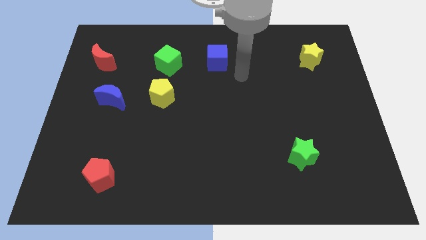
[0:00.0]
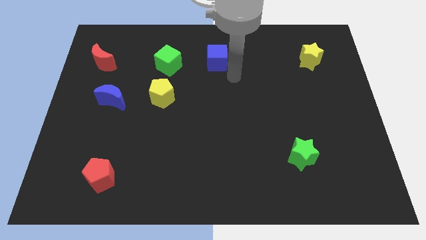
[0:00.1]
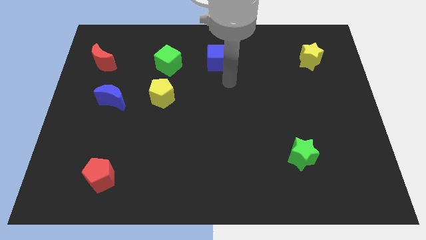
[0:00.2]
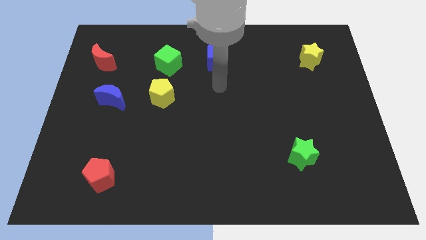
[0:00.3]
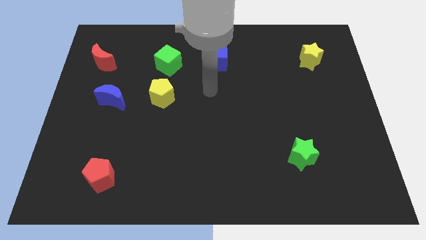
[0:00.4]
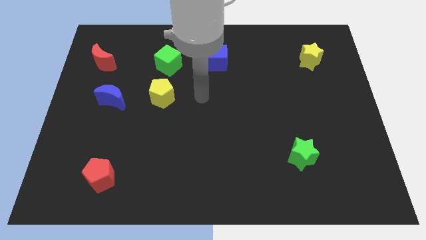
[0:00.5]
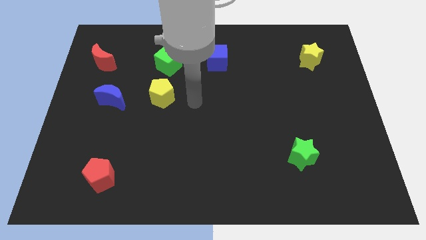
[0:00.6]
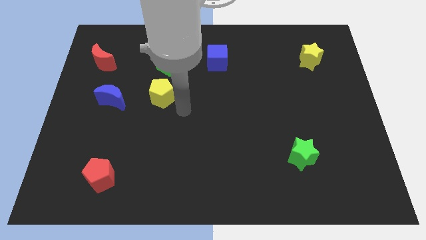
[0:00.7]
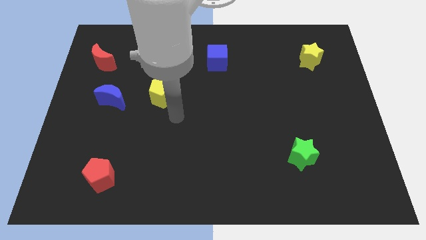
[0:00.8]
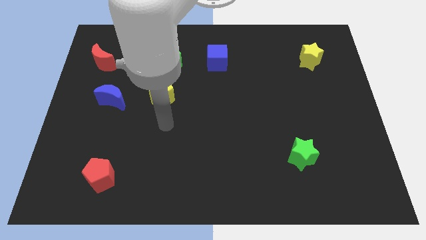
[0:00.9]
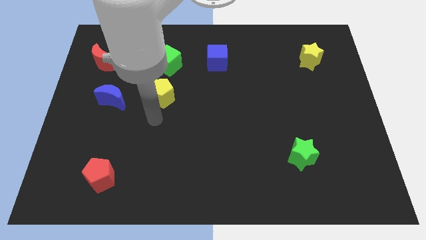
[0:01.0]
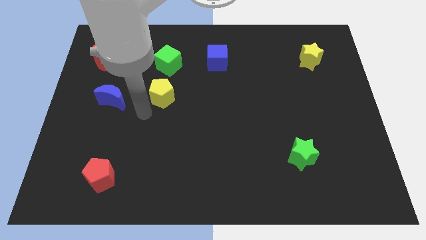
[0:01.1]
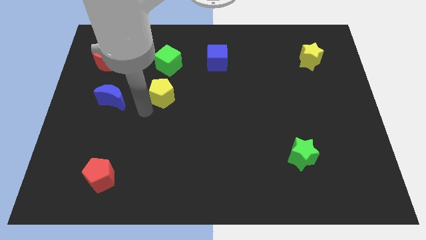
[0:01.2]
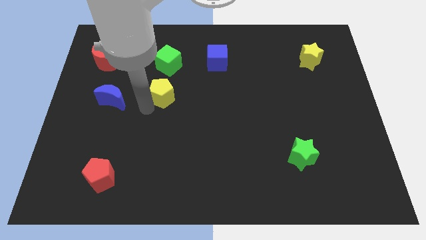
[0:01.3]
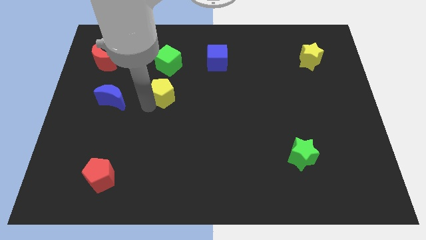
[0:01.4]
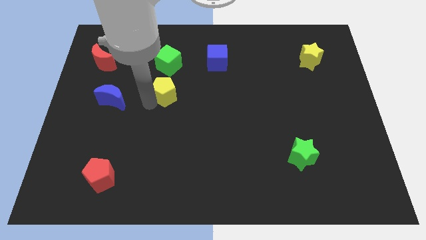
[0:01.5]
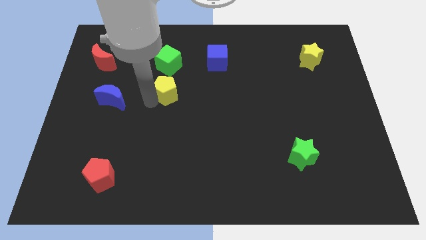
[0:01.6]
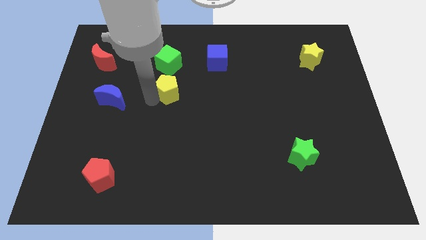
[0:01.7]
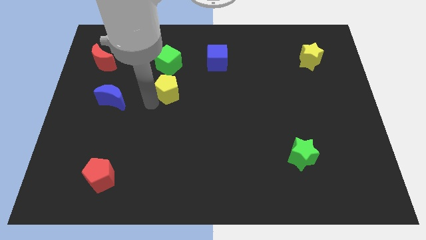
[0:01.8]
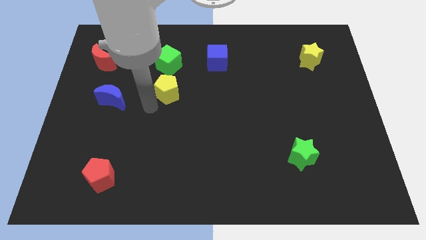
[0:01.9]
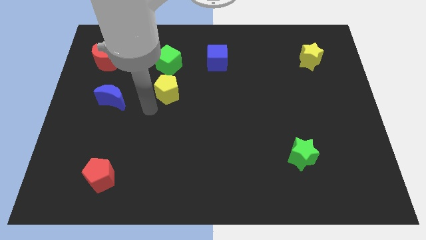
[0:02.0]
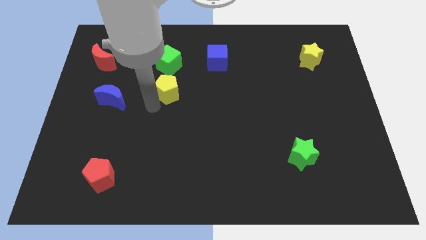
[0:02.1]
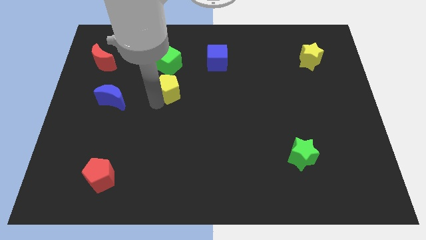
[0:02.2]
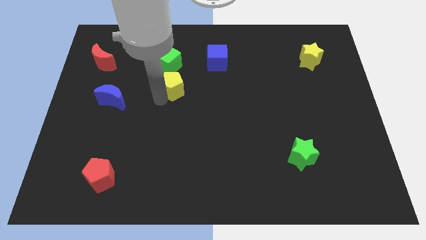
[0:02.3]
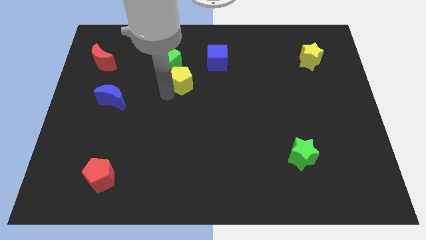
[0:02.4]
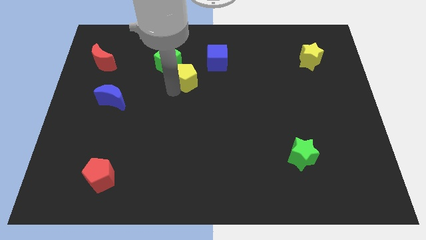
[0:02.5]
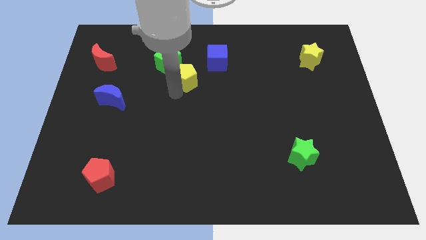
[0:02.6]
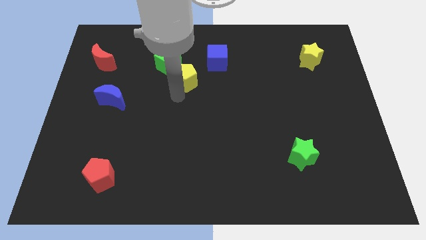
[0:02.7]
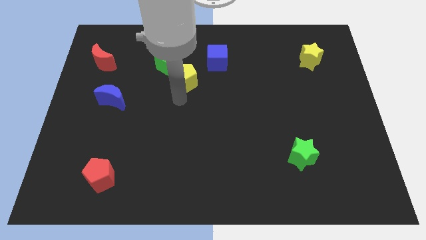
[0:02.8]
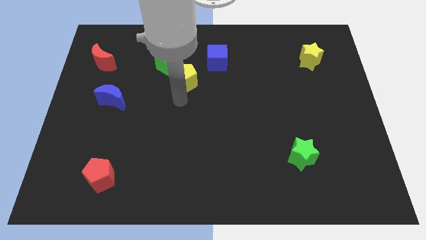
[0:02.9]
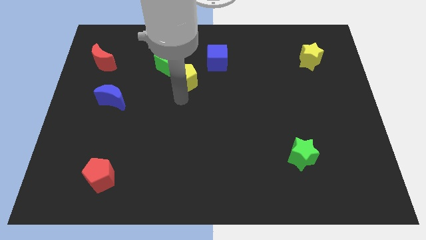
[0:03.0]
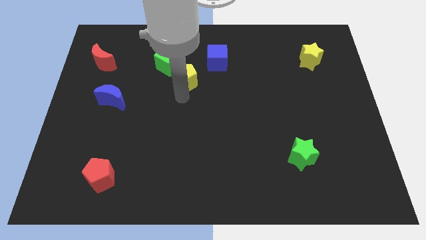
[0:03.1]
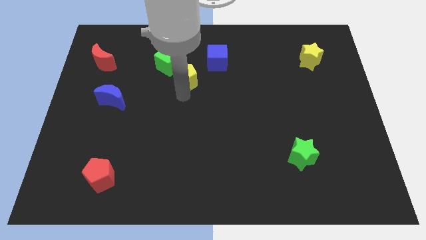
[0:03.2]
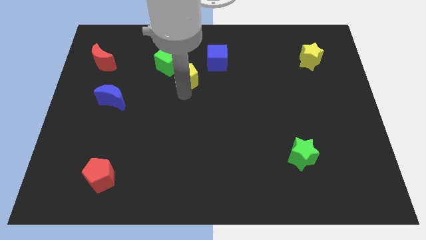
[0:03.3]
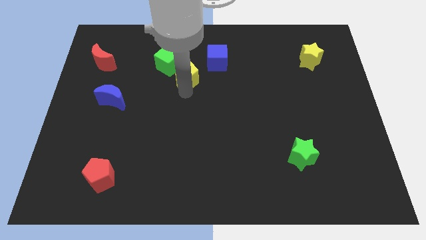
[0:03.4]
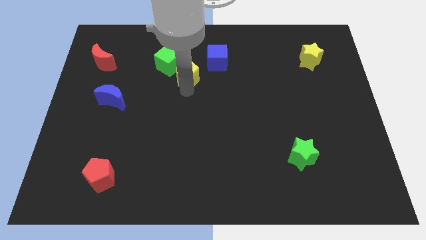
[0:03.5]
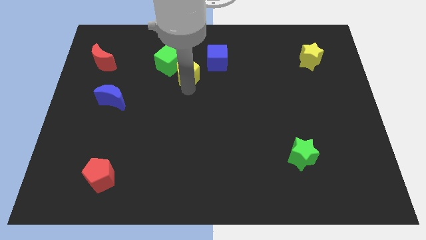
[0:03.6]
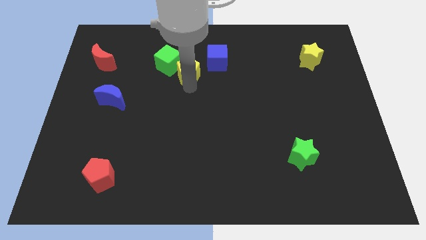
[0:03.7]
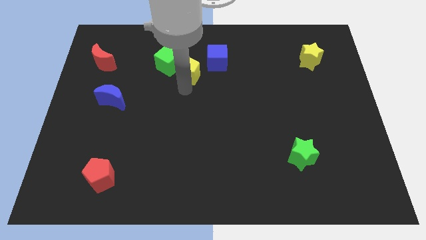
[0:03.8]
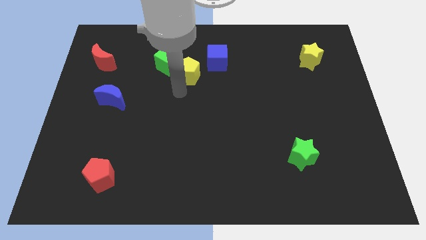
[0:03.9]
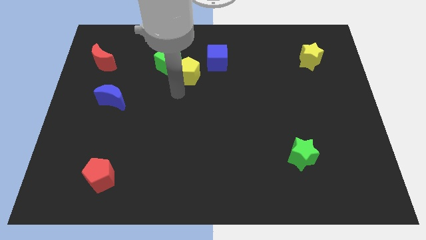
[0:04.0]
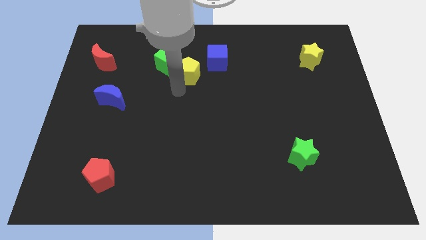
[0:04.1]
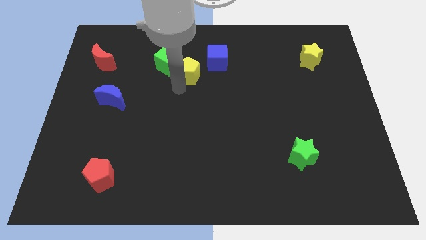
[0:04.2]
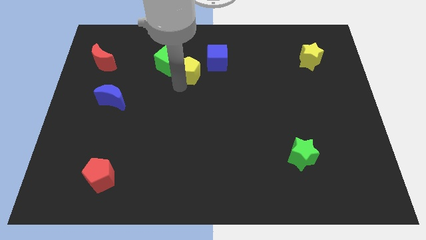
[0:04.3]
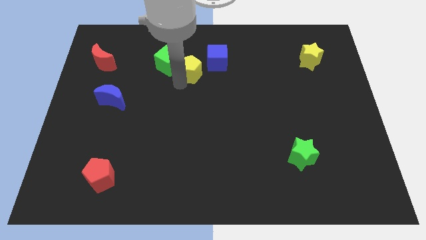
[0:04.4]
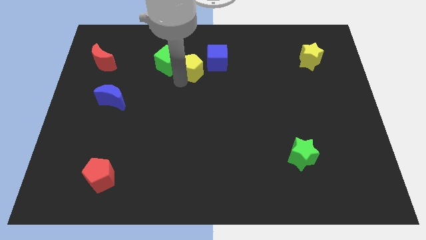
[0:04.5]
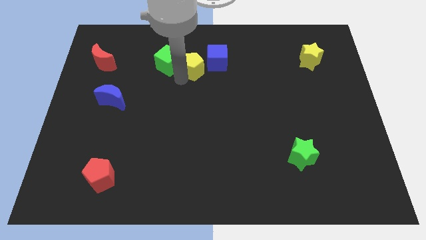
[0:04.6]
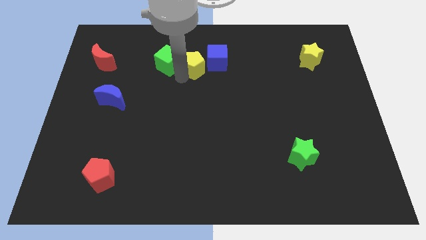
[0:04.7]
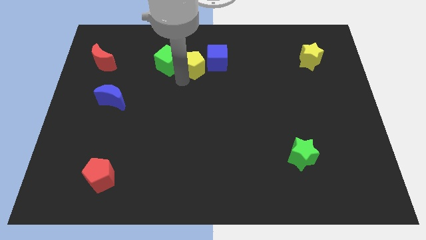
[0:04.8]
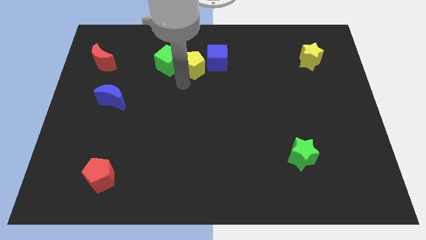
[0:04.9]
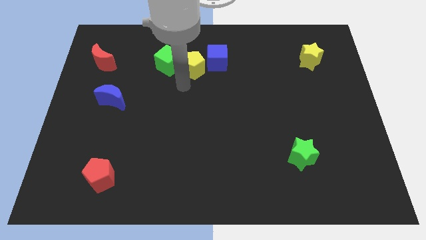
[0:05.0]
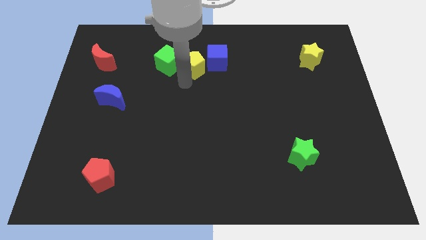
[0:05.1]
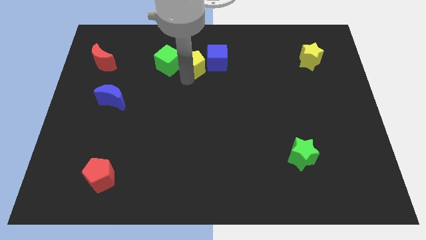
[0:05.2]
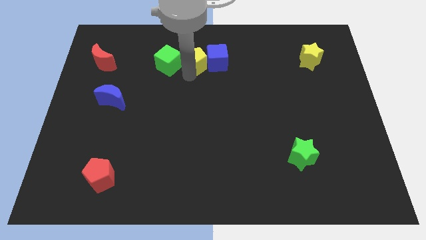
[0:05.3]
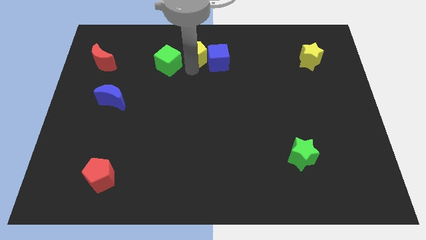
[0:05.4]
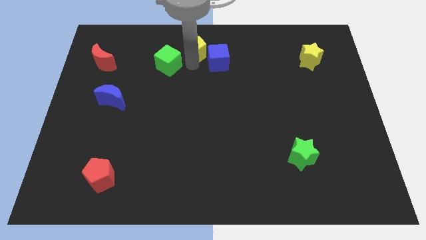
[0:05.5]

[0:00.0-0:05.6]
push the yellow pentagon to the top
